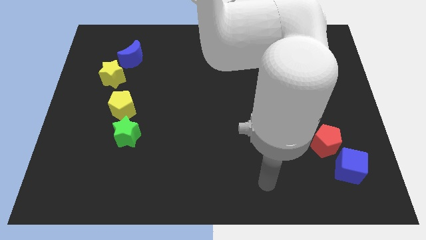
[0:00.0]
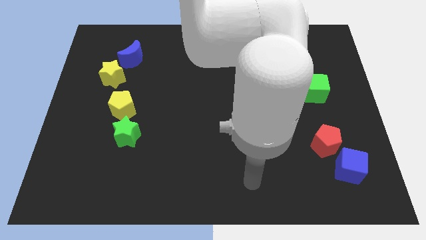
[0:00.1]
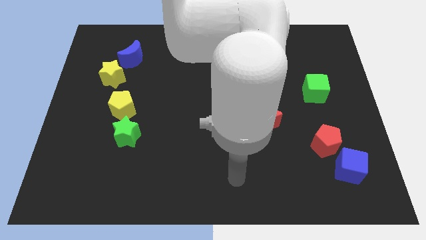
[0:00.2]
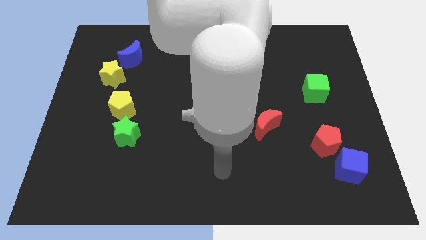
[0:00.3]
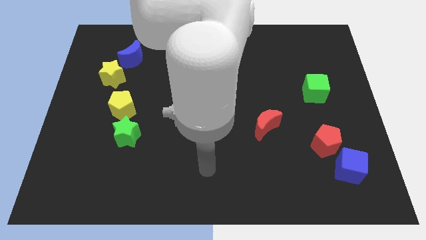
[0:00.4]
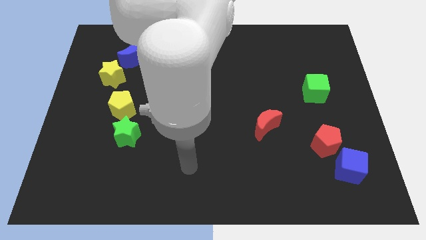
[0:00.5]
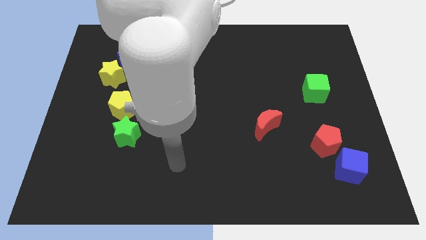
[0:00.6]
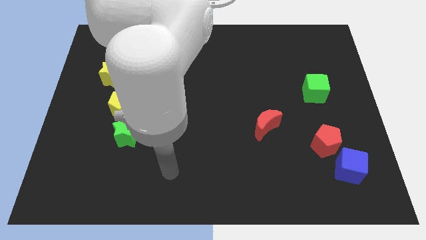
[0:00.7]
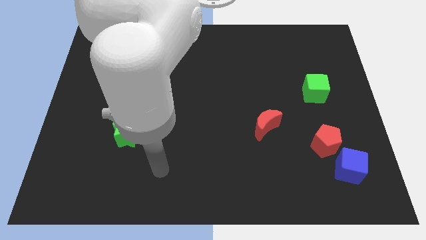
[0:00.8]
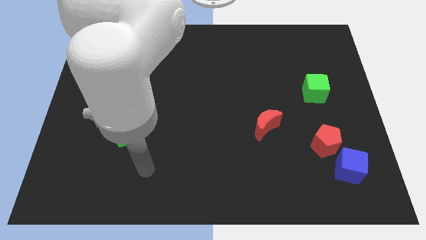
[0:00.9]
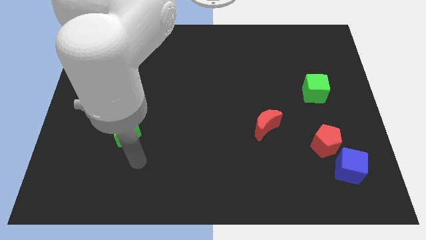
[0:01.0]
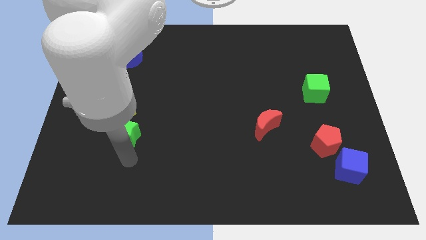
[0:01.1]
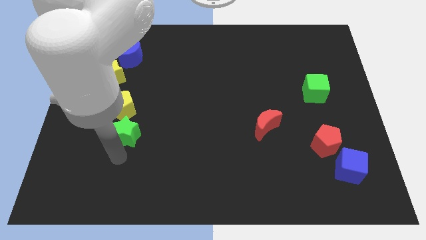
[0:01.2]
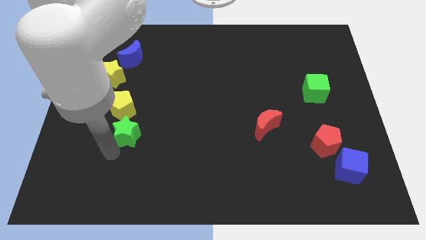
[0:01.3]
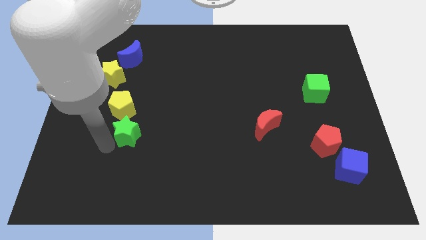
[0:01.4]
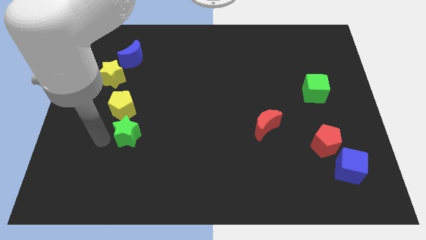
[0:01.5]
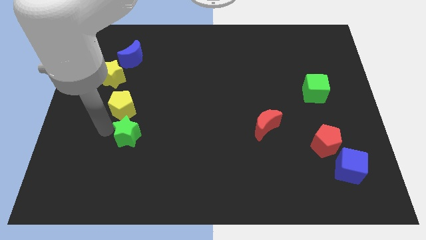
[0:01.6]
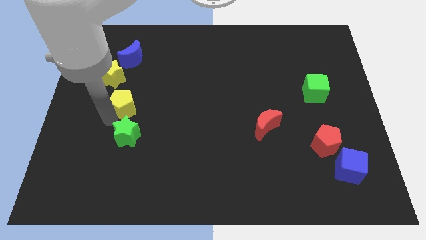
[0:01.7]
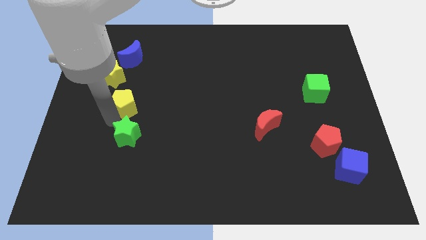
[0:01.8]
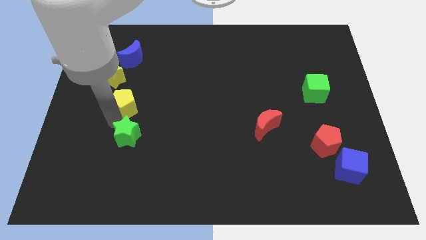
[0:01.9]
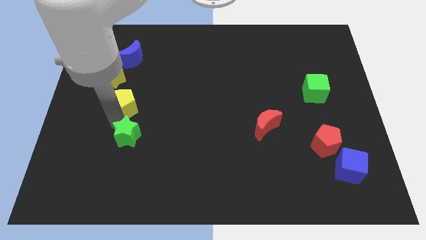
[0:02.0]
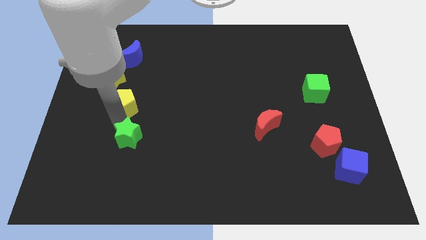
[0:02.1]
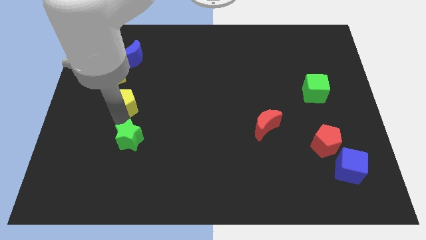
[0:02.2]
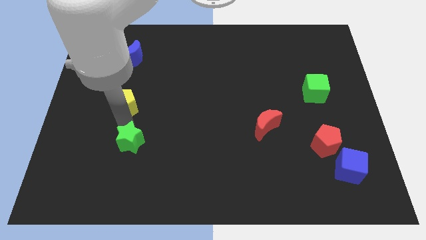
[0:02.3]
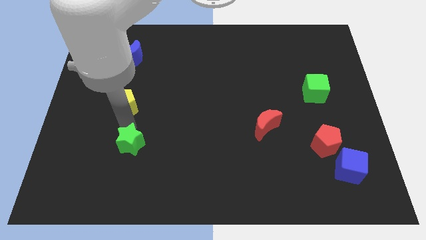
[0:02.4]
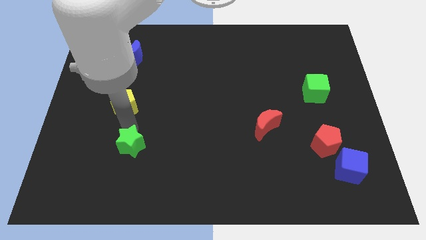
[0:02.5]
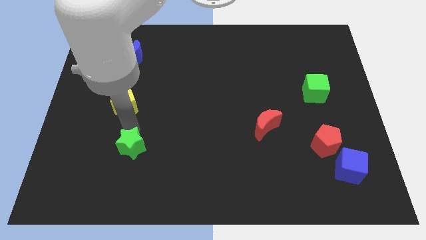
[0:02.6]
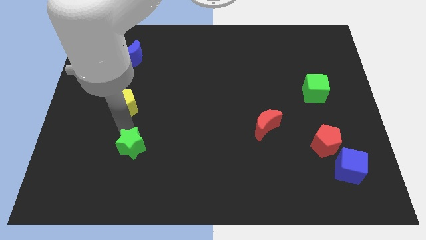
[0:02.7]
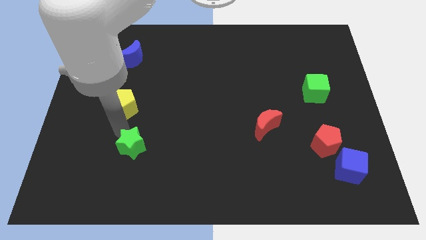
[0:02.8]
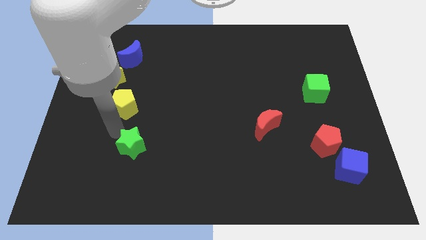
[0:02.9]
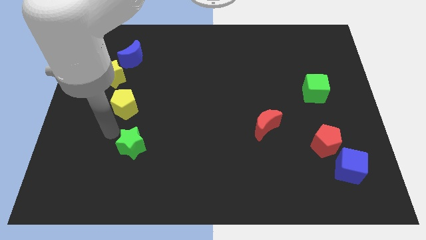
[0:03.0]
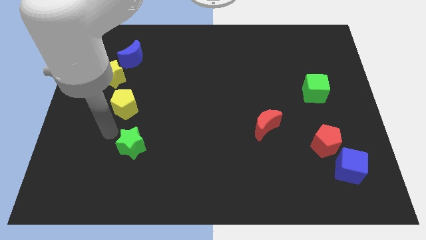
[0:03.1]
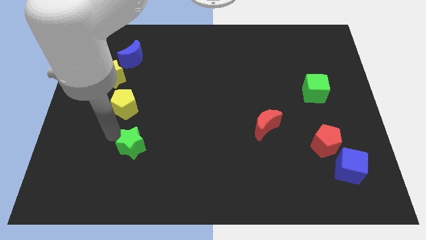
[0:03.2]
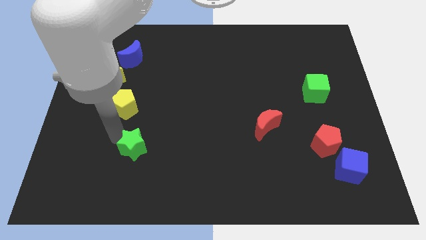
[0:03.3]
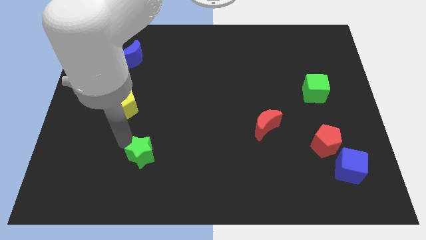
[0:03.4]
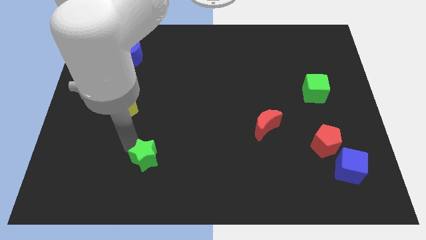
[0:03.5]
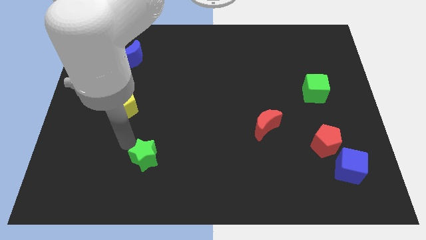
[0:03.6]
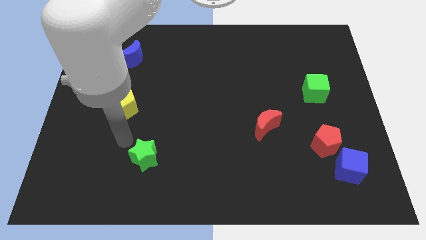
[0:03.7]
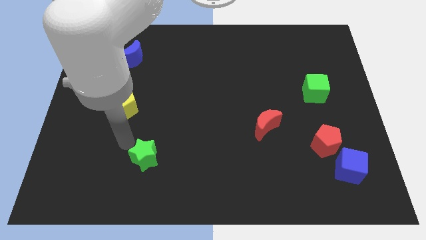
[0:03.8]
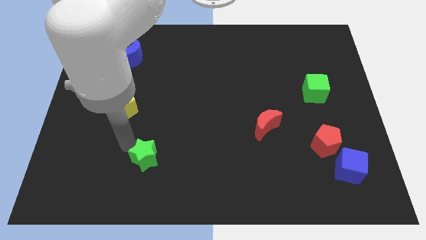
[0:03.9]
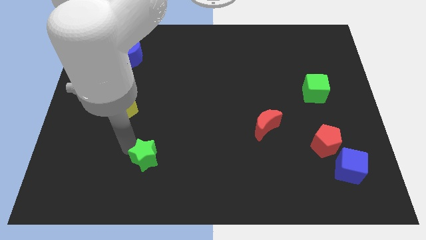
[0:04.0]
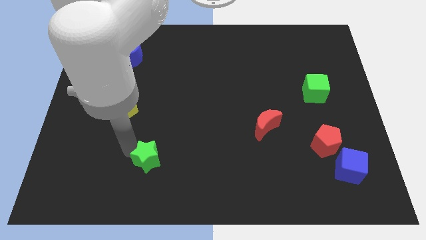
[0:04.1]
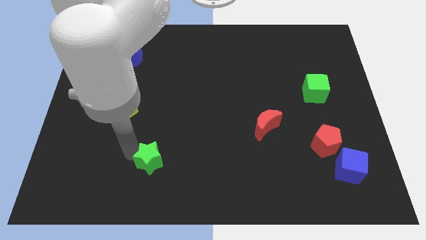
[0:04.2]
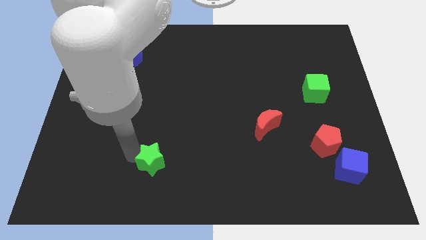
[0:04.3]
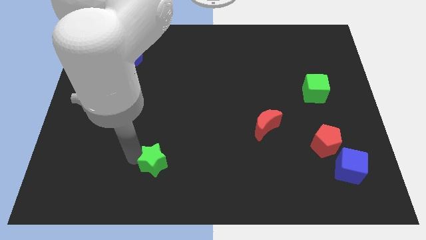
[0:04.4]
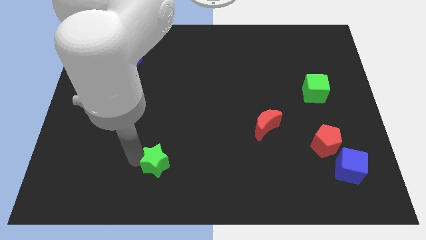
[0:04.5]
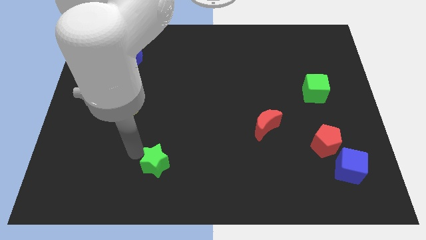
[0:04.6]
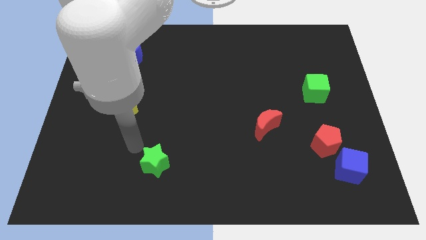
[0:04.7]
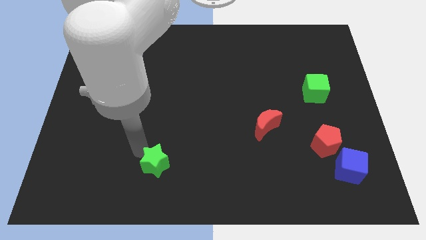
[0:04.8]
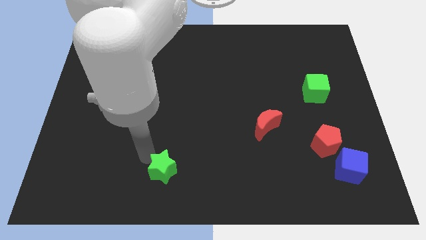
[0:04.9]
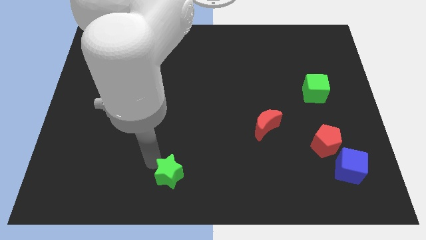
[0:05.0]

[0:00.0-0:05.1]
slide the green star to the bottom

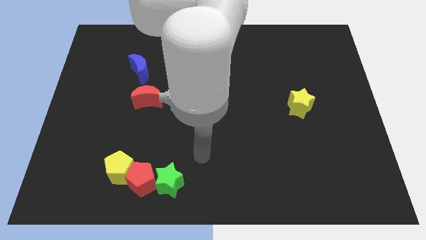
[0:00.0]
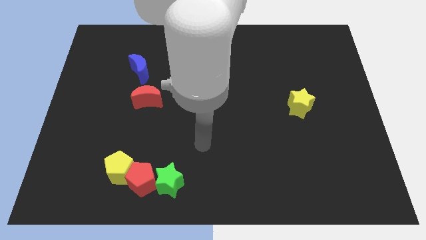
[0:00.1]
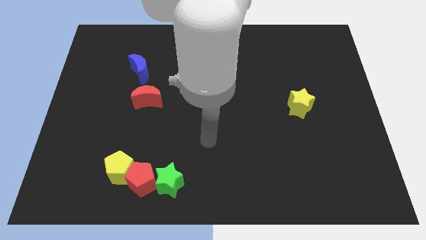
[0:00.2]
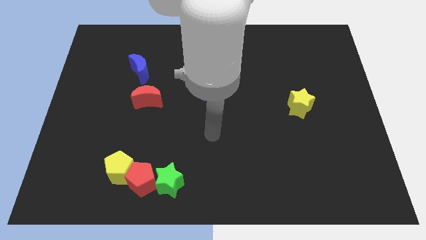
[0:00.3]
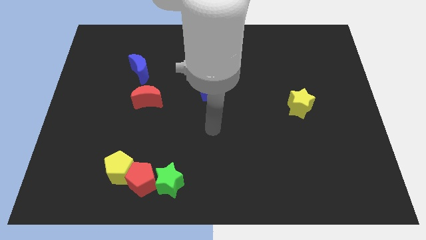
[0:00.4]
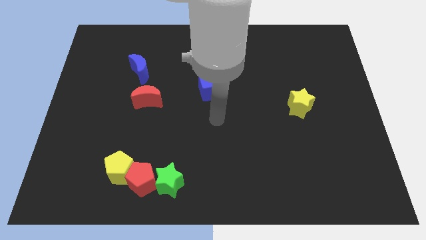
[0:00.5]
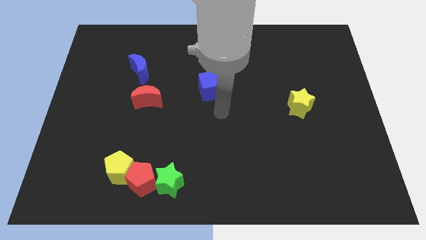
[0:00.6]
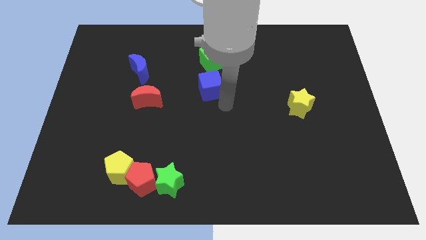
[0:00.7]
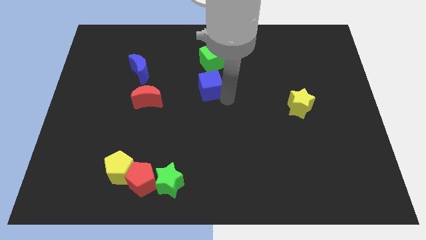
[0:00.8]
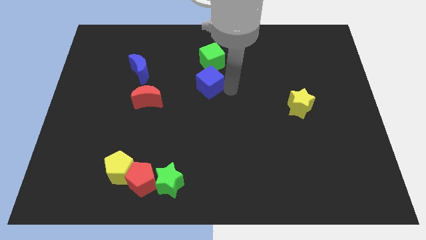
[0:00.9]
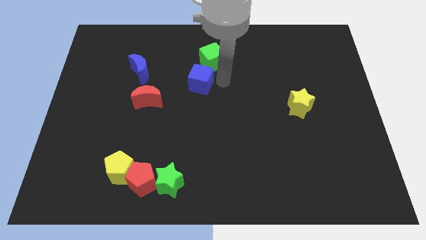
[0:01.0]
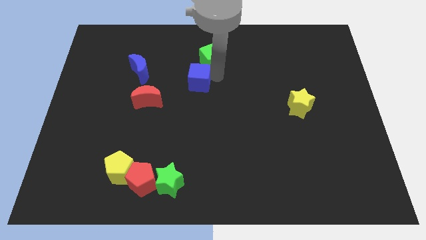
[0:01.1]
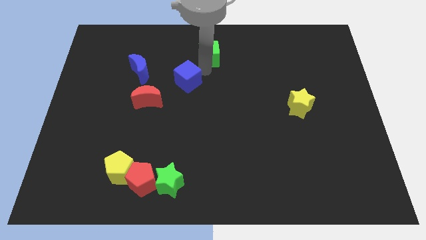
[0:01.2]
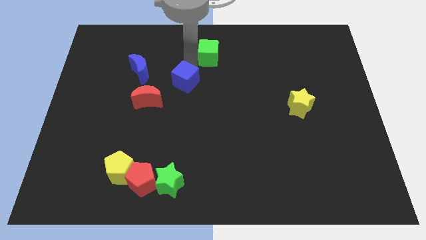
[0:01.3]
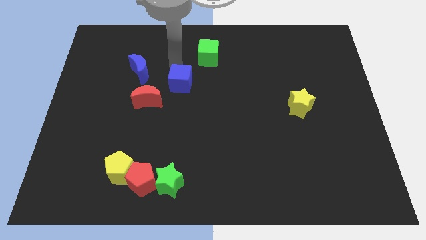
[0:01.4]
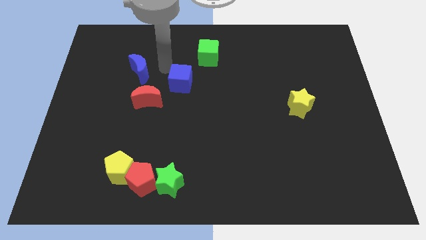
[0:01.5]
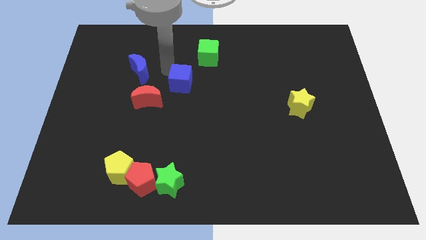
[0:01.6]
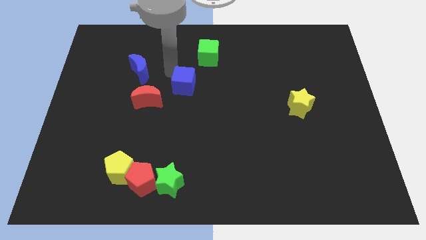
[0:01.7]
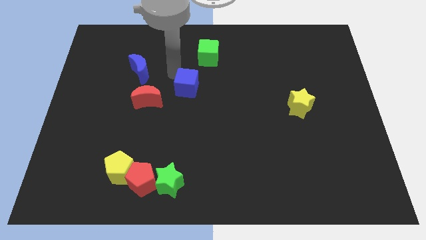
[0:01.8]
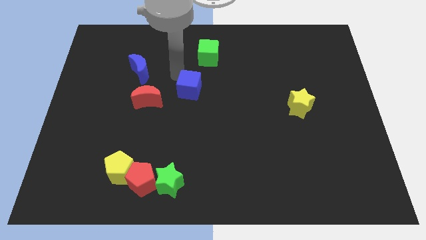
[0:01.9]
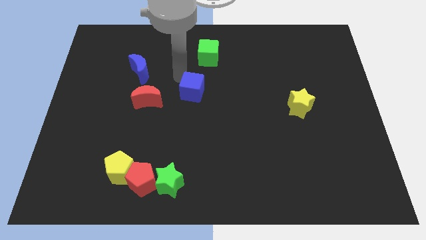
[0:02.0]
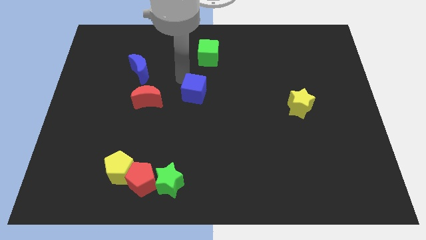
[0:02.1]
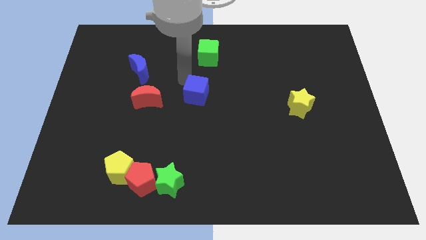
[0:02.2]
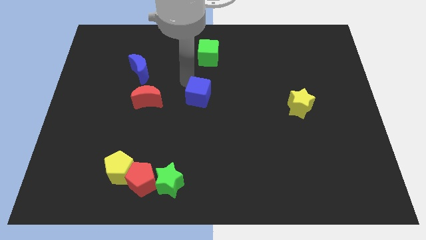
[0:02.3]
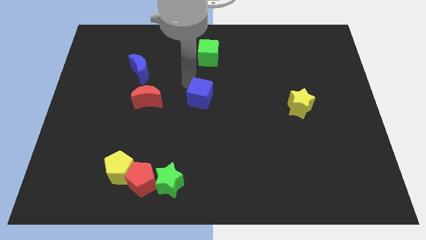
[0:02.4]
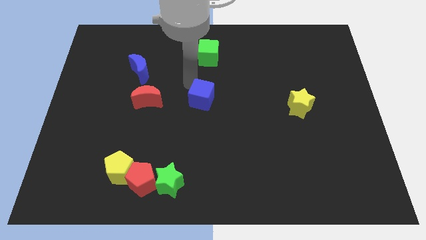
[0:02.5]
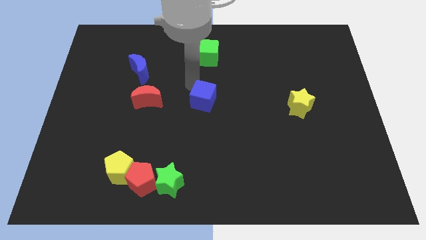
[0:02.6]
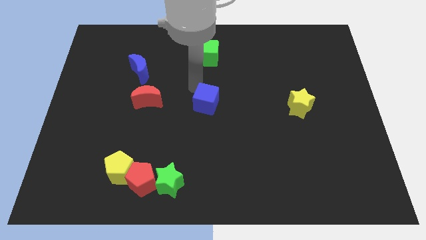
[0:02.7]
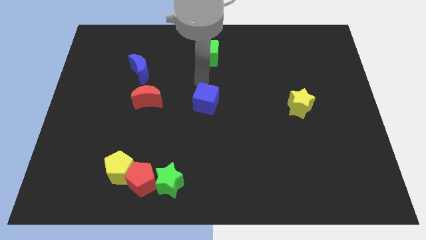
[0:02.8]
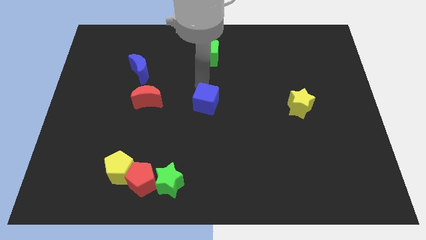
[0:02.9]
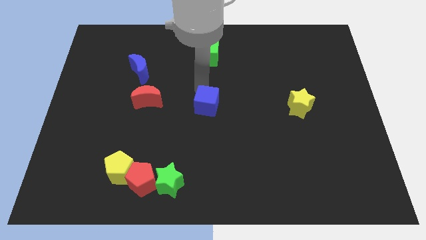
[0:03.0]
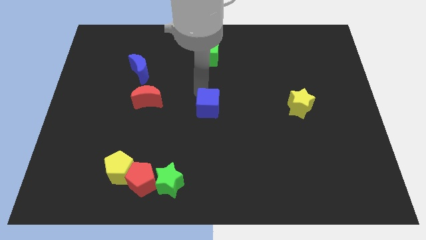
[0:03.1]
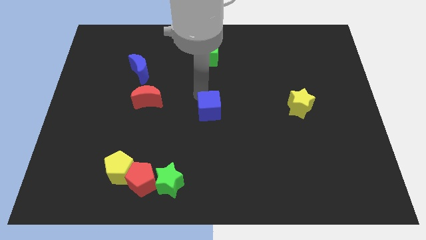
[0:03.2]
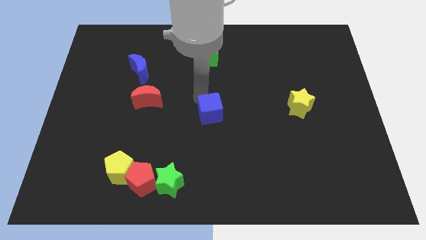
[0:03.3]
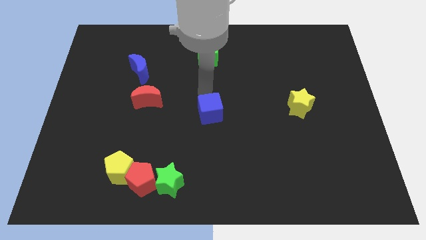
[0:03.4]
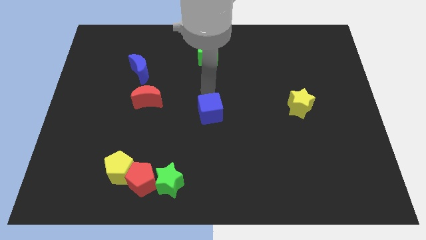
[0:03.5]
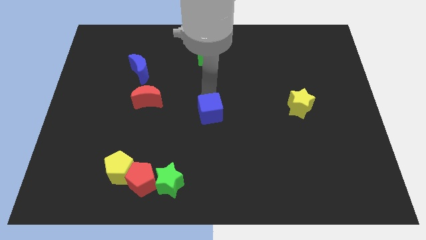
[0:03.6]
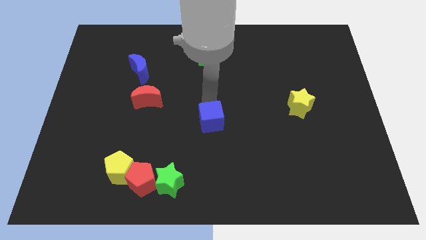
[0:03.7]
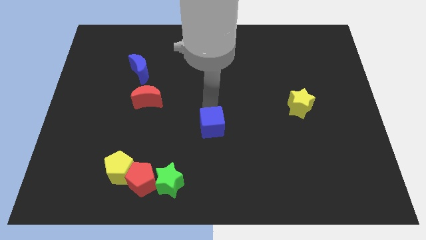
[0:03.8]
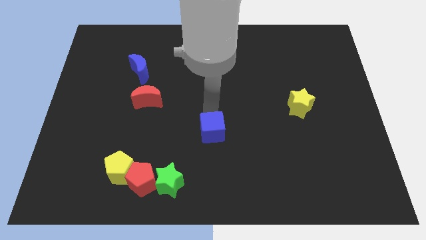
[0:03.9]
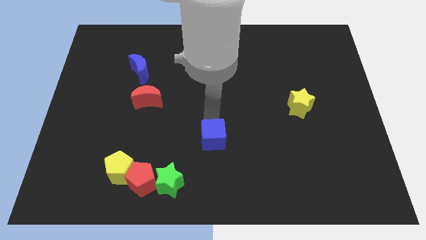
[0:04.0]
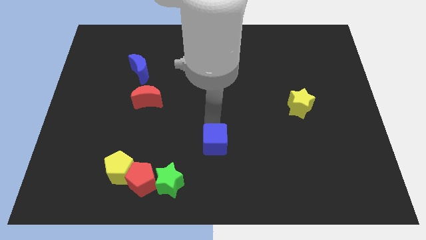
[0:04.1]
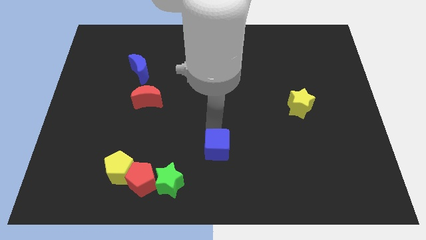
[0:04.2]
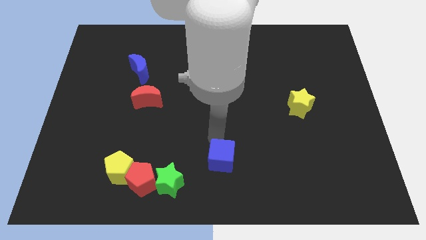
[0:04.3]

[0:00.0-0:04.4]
move the blue cube to the bottom side
